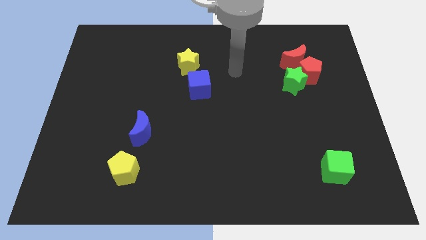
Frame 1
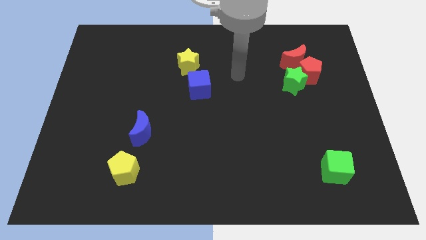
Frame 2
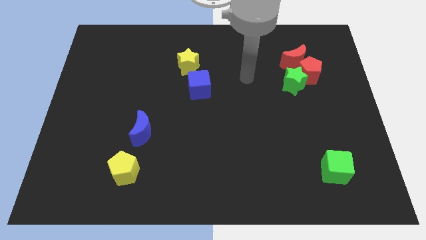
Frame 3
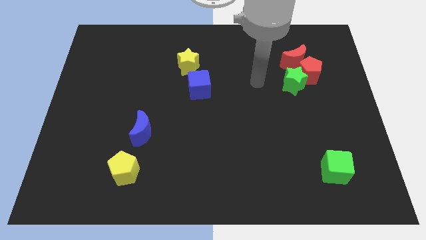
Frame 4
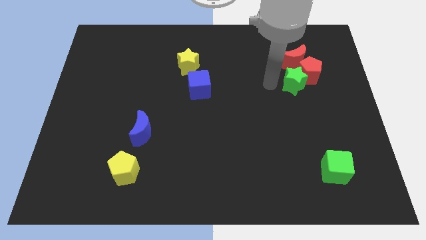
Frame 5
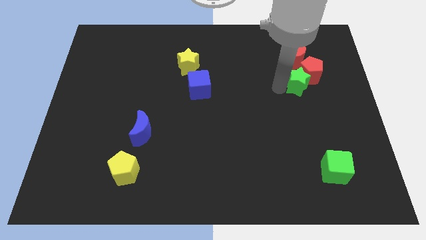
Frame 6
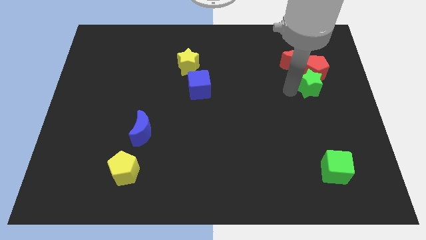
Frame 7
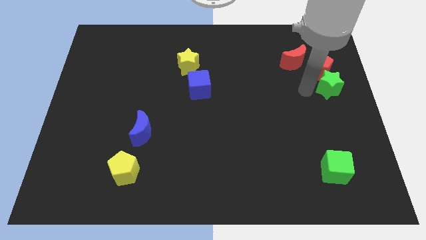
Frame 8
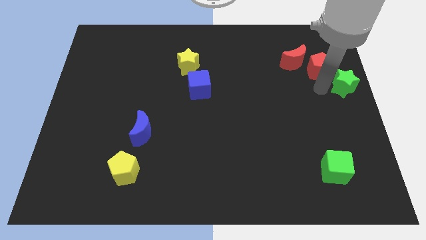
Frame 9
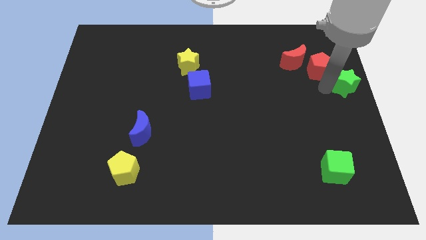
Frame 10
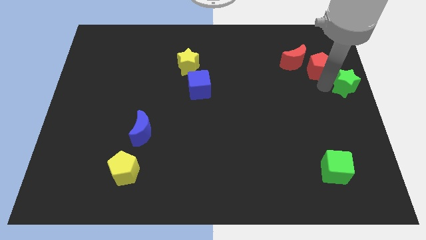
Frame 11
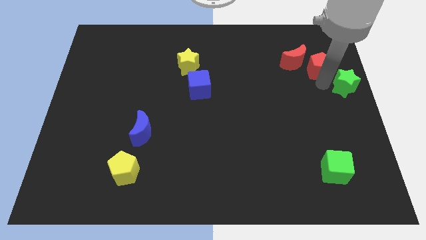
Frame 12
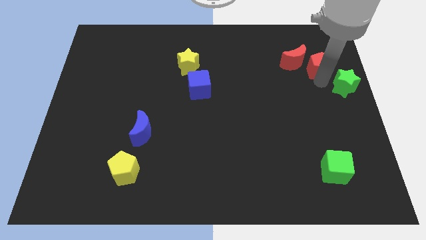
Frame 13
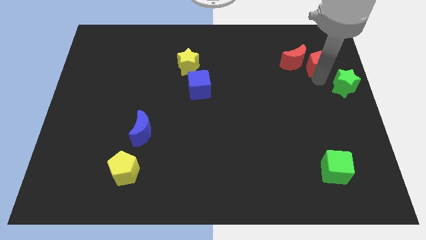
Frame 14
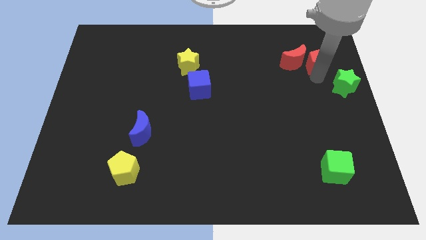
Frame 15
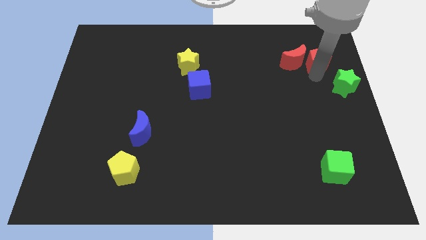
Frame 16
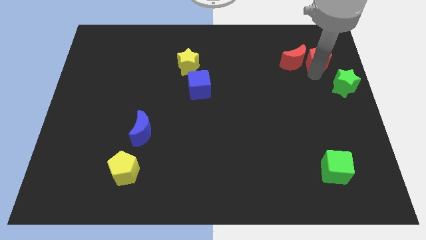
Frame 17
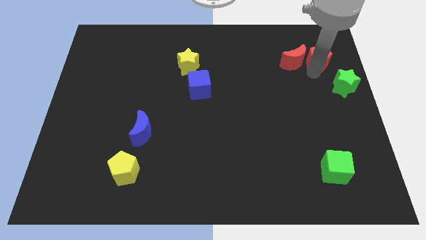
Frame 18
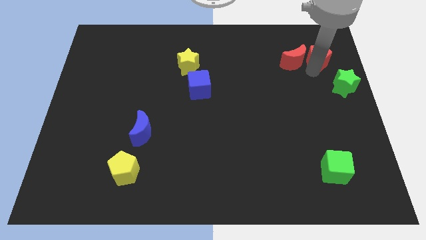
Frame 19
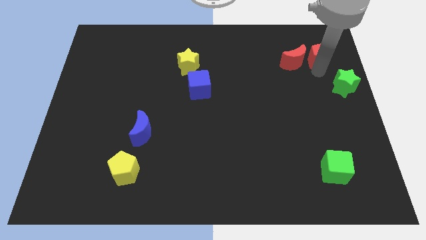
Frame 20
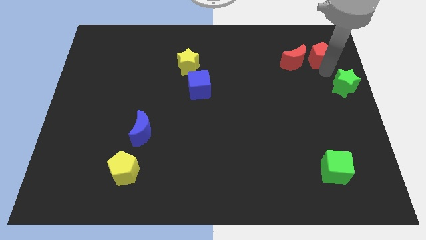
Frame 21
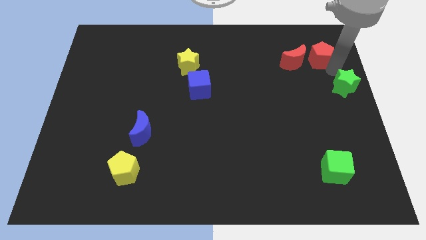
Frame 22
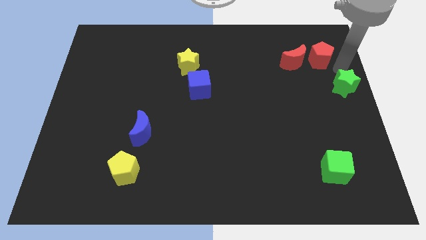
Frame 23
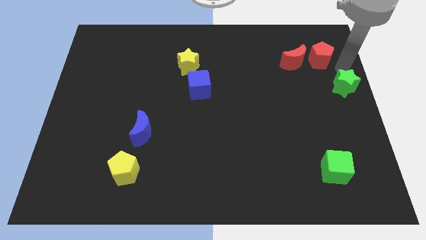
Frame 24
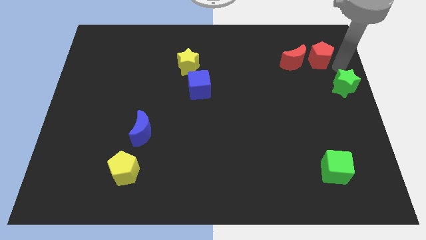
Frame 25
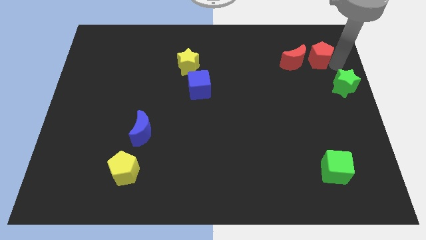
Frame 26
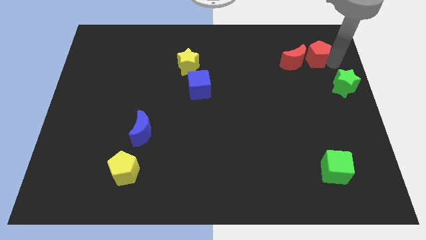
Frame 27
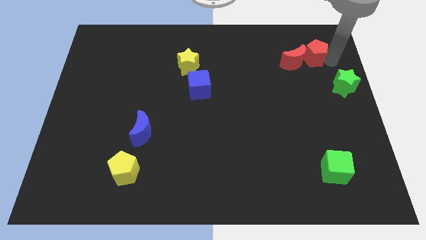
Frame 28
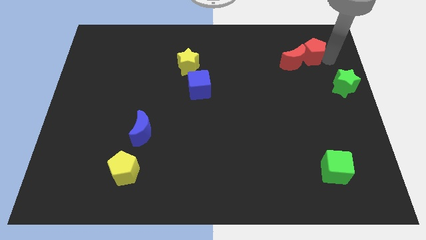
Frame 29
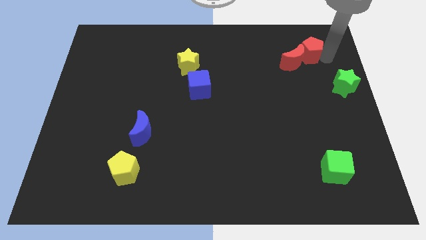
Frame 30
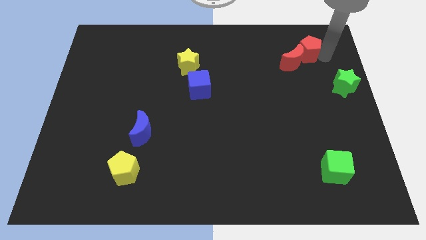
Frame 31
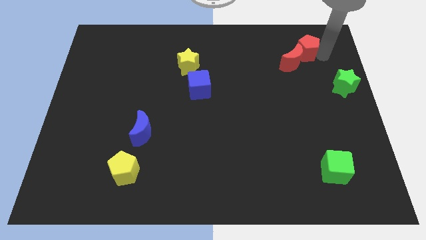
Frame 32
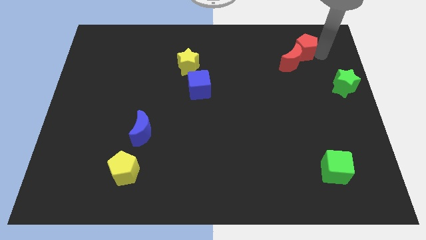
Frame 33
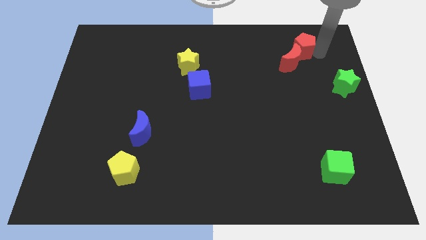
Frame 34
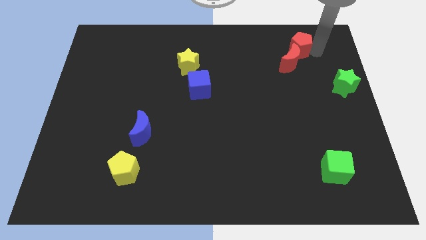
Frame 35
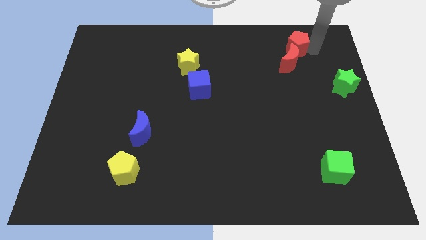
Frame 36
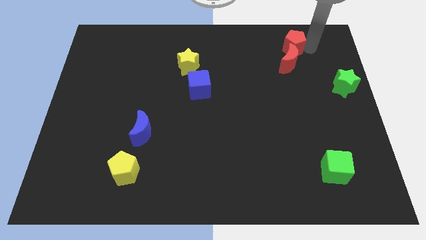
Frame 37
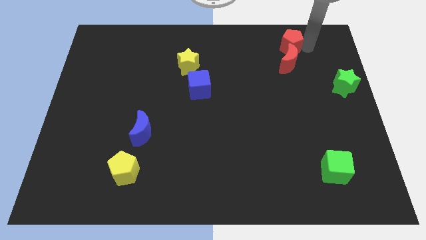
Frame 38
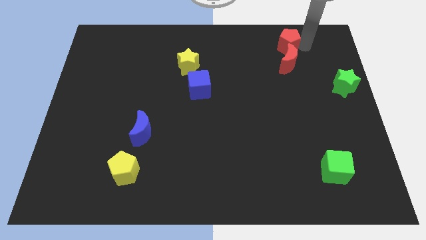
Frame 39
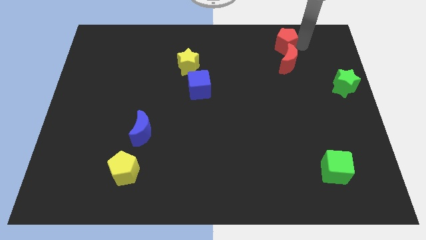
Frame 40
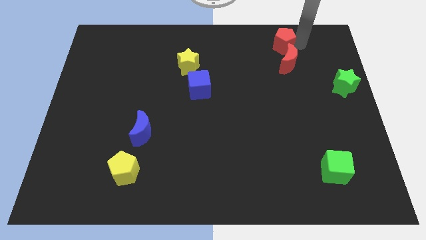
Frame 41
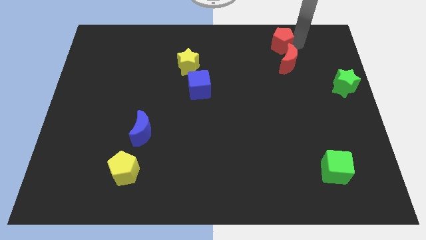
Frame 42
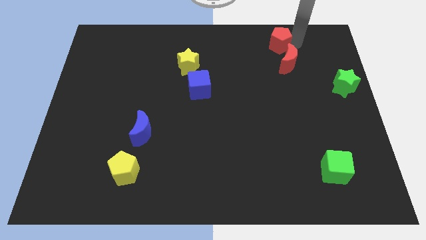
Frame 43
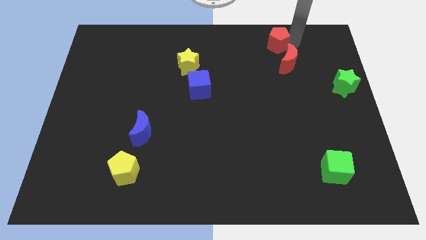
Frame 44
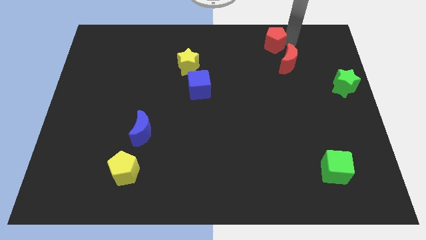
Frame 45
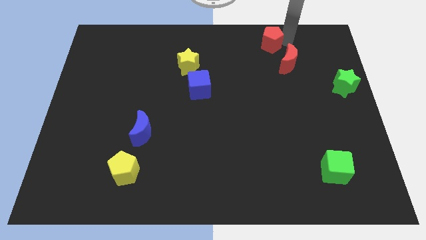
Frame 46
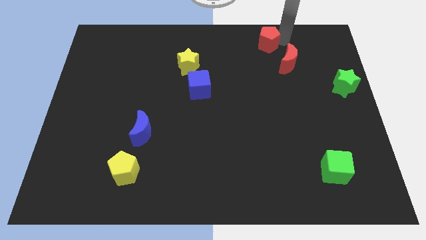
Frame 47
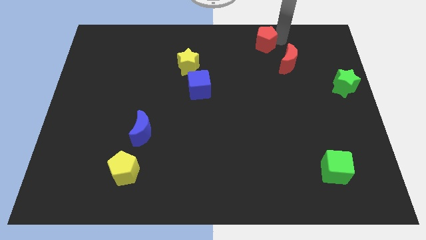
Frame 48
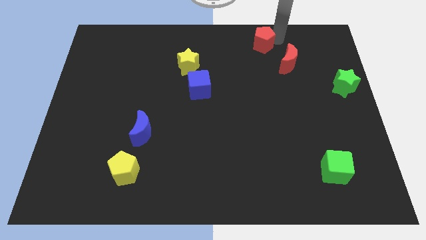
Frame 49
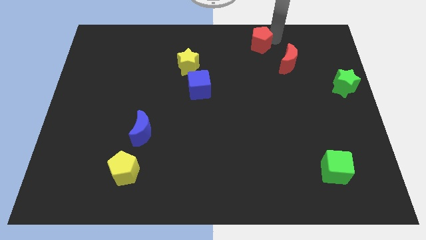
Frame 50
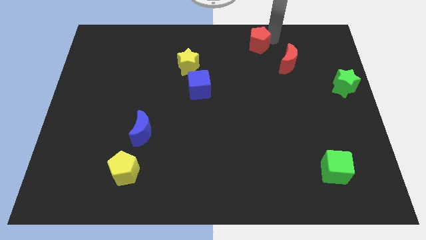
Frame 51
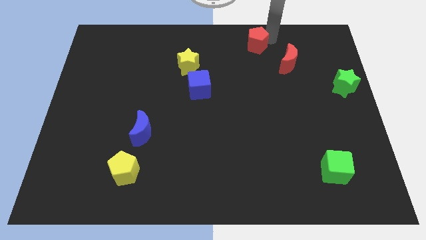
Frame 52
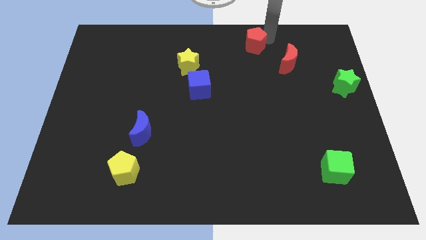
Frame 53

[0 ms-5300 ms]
put the red pentagon to the towards your base

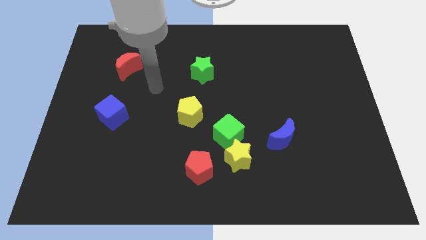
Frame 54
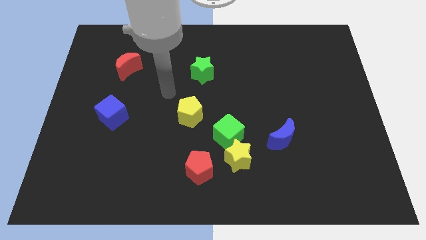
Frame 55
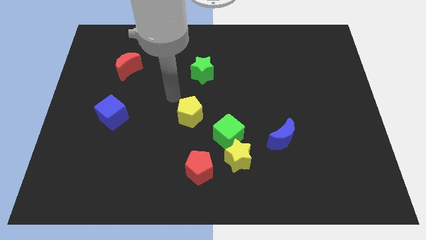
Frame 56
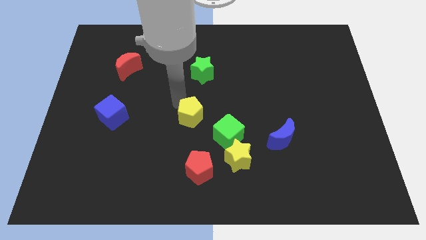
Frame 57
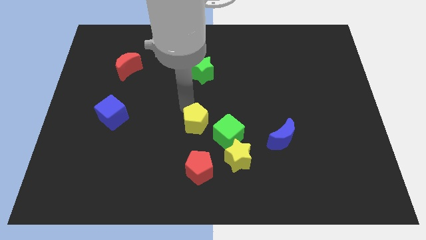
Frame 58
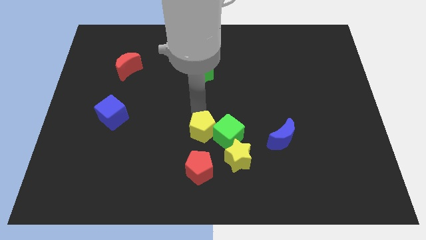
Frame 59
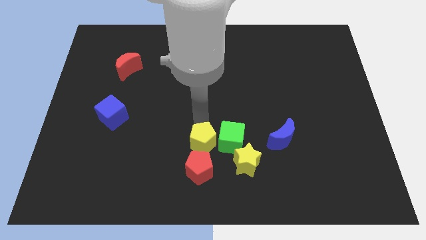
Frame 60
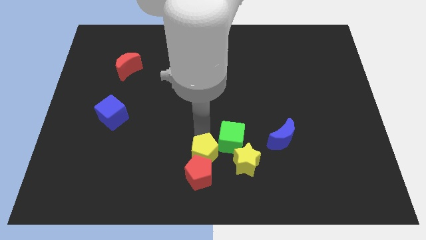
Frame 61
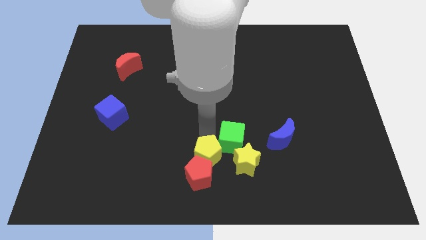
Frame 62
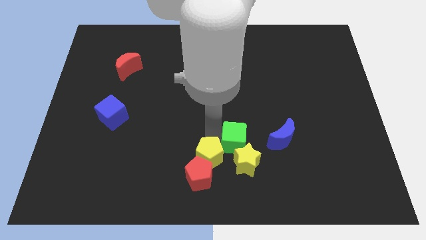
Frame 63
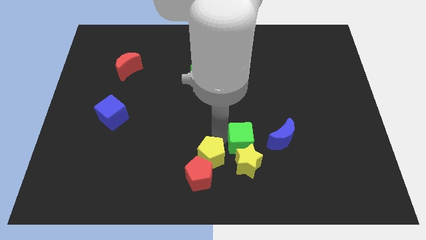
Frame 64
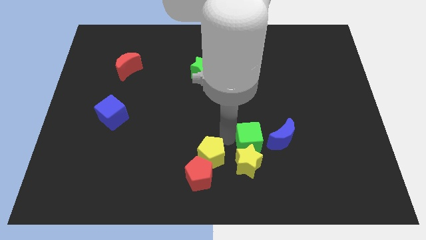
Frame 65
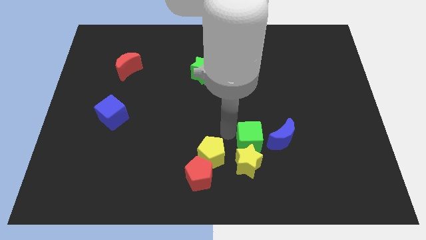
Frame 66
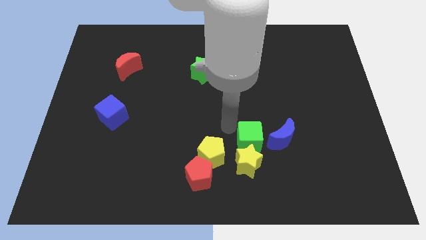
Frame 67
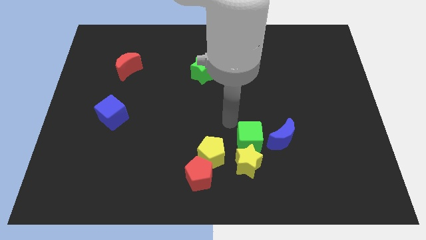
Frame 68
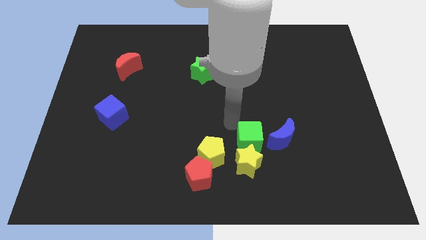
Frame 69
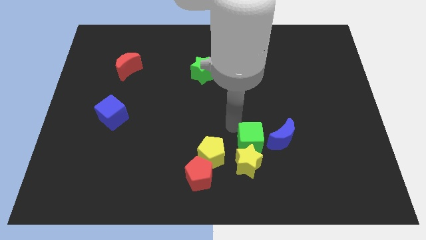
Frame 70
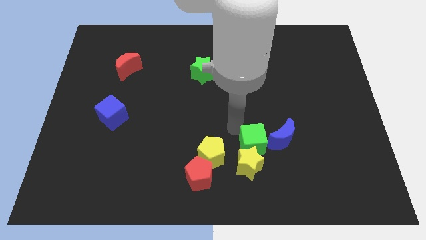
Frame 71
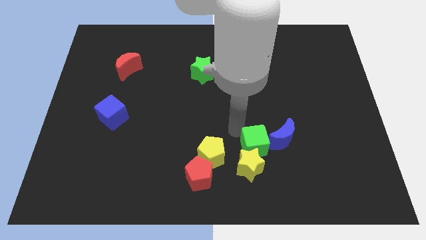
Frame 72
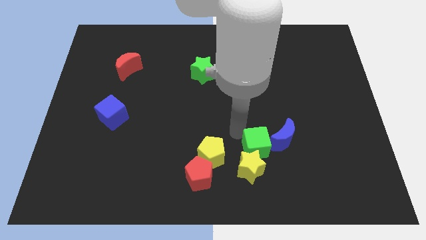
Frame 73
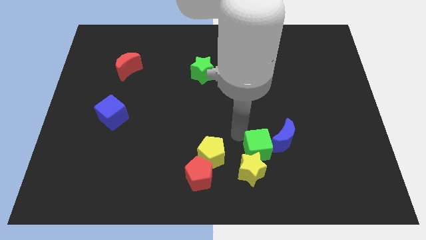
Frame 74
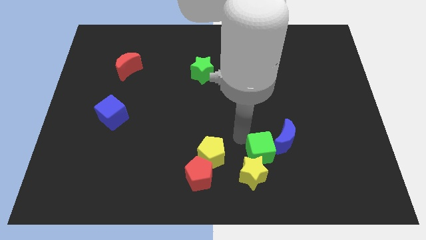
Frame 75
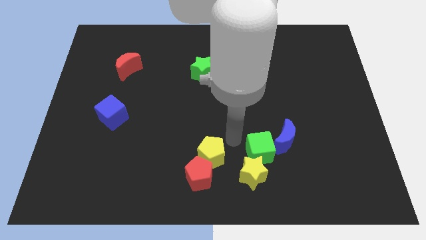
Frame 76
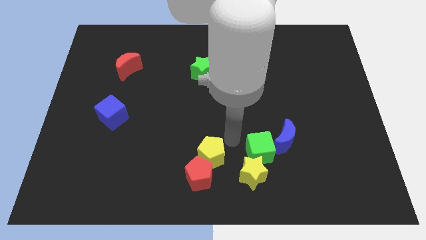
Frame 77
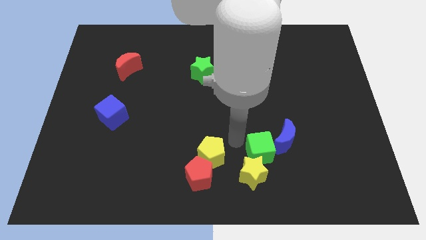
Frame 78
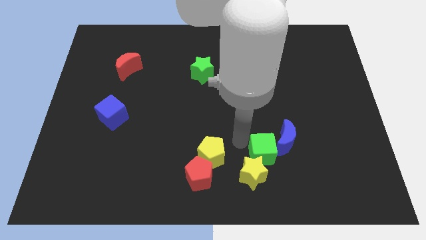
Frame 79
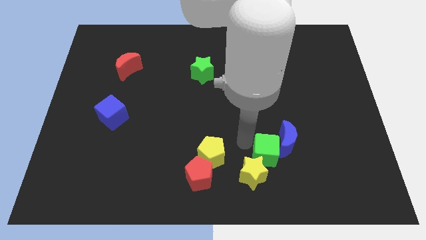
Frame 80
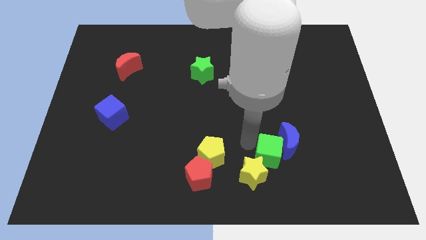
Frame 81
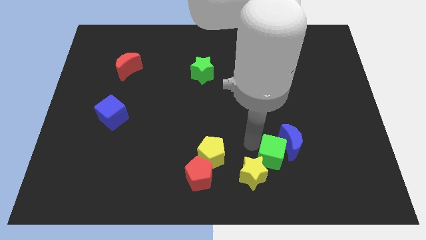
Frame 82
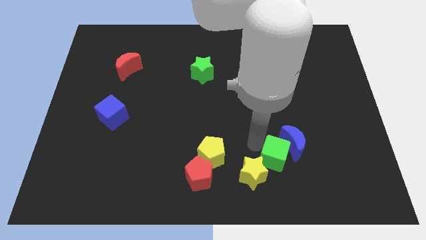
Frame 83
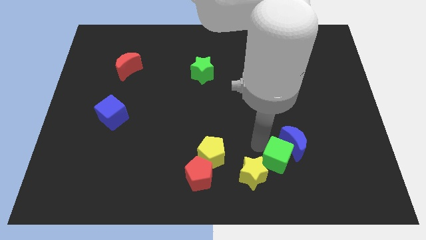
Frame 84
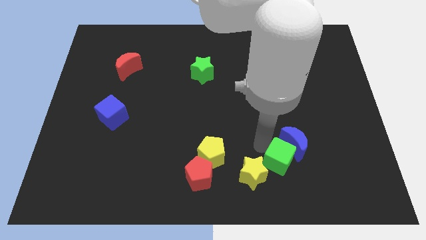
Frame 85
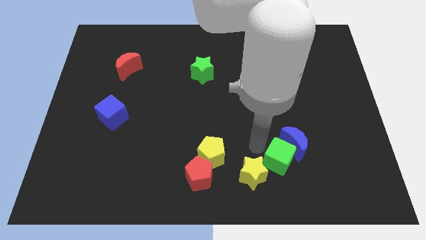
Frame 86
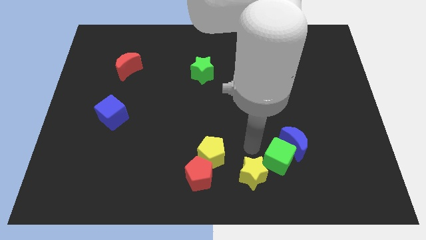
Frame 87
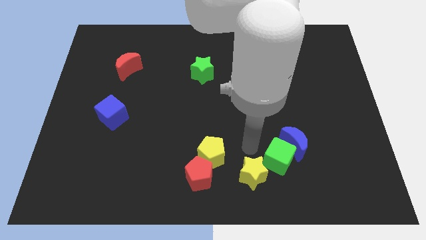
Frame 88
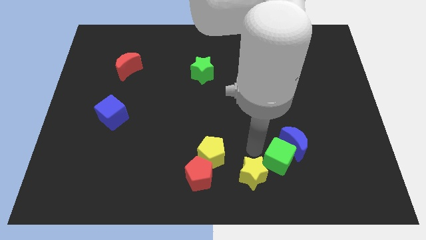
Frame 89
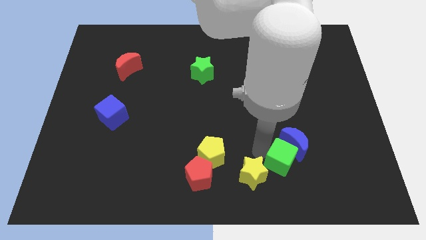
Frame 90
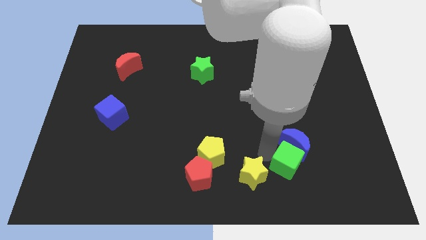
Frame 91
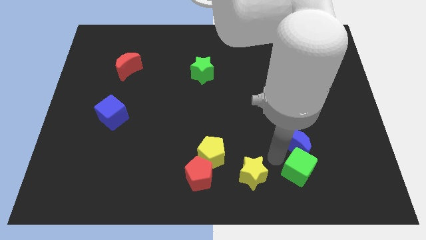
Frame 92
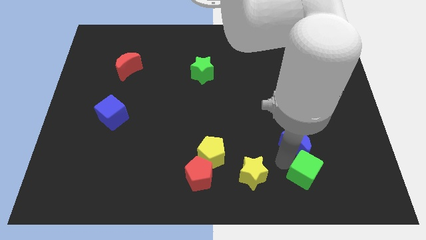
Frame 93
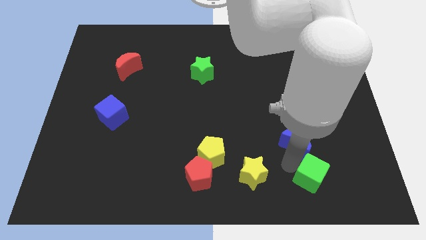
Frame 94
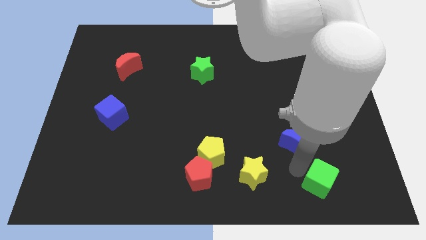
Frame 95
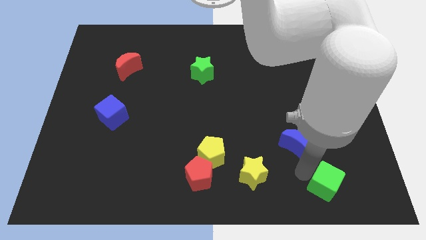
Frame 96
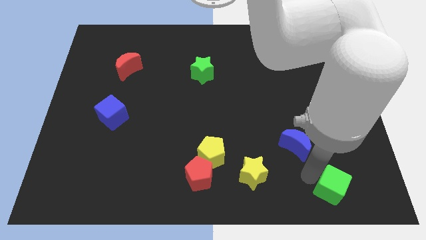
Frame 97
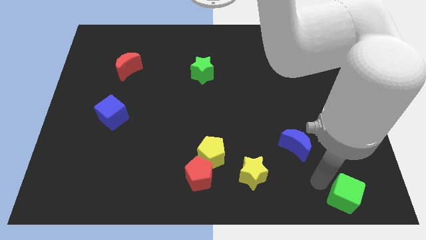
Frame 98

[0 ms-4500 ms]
slide the green cube to the bottom right of the board
